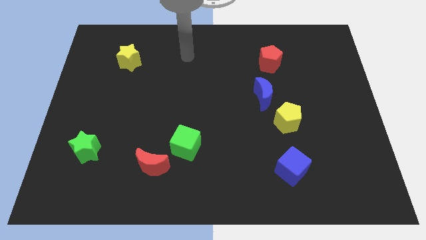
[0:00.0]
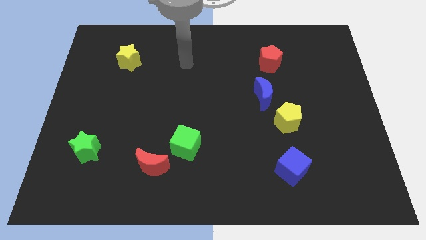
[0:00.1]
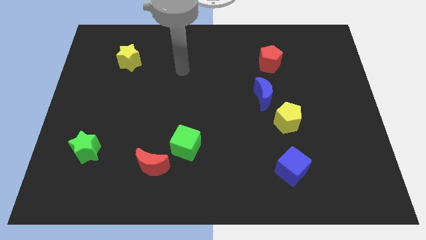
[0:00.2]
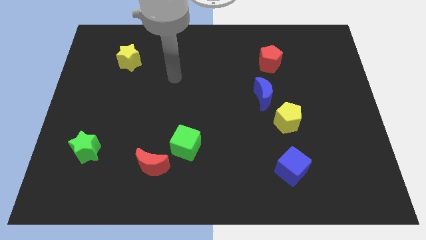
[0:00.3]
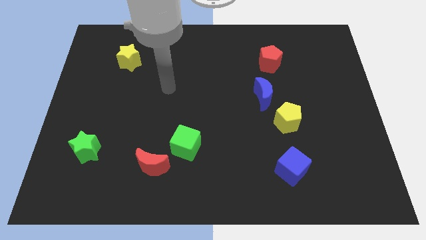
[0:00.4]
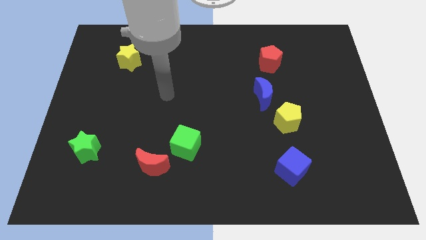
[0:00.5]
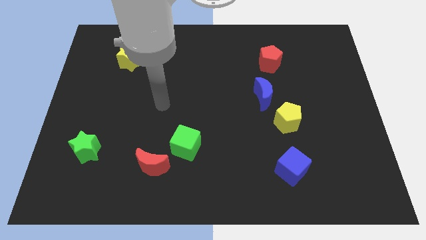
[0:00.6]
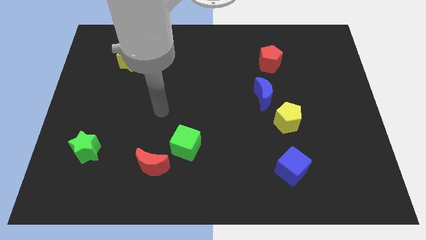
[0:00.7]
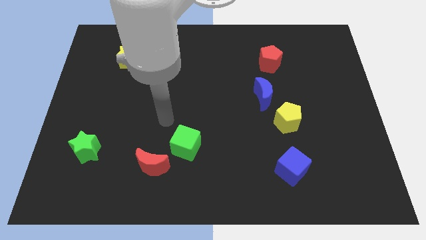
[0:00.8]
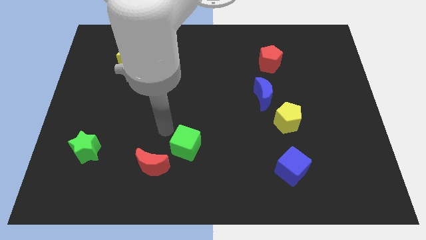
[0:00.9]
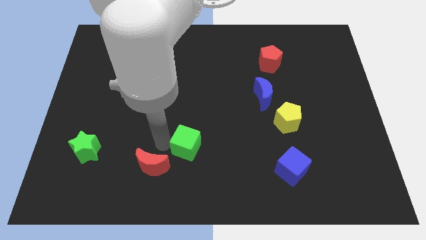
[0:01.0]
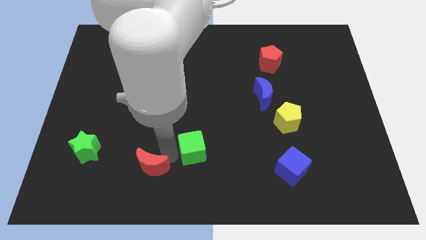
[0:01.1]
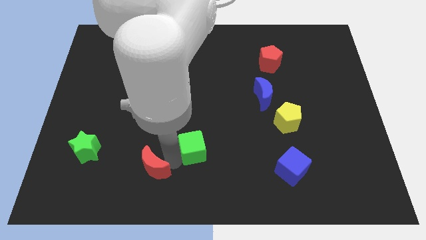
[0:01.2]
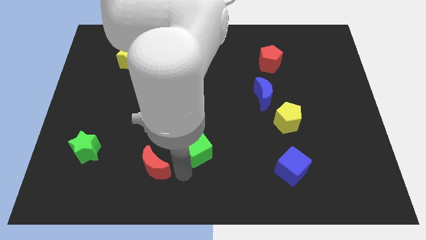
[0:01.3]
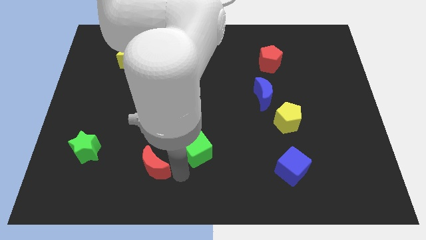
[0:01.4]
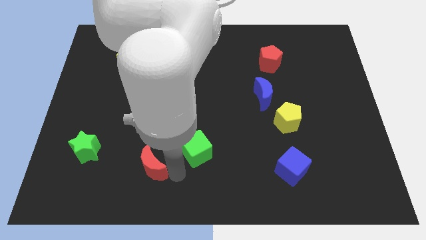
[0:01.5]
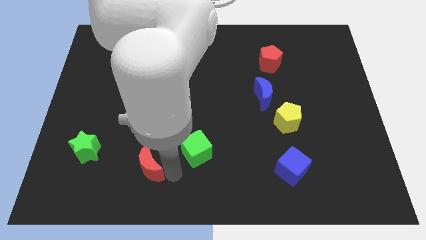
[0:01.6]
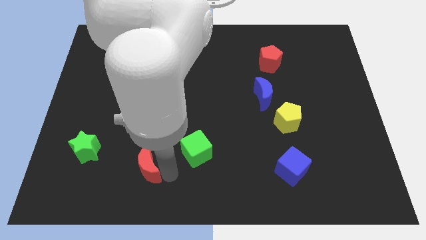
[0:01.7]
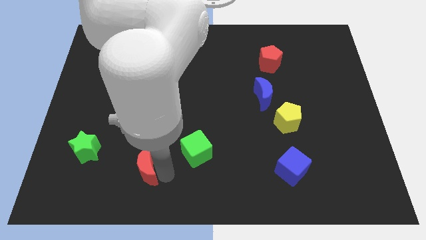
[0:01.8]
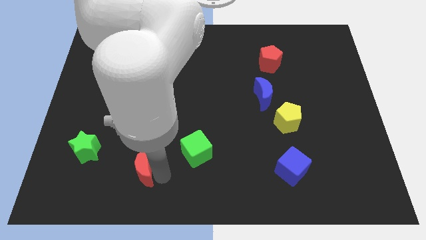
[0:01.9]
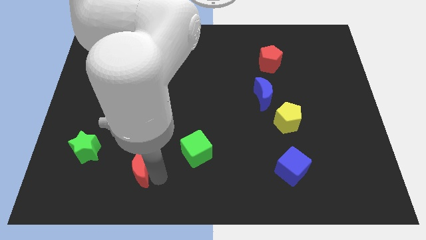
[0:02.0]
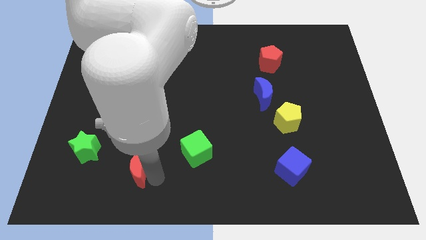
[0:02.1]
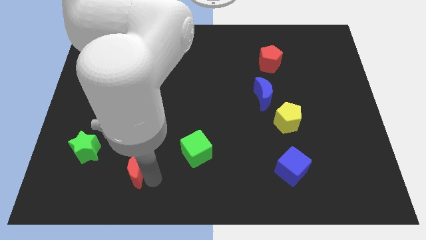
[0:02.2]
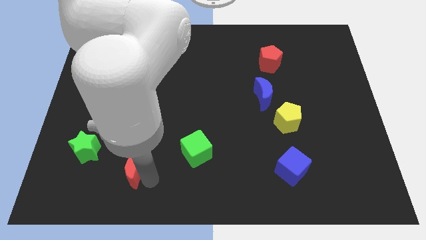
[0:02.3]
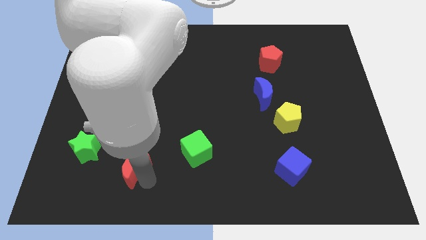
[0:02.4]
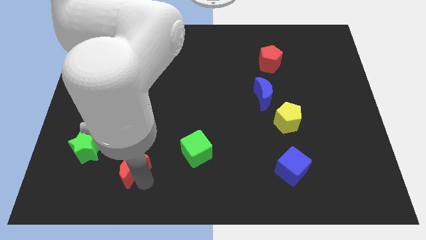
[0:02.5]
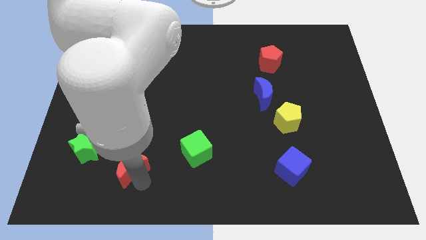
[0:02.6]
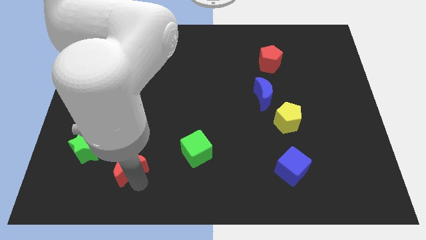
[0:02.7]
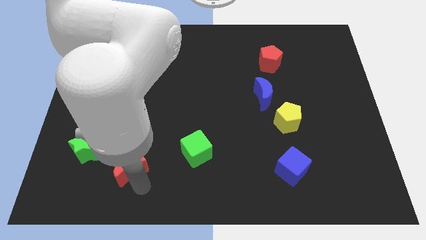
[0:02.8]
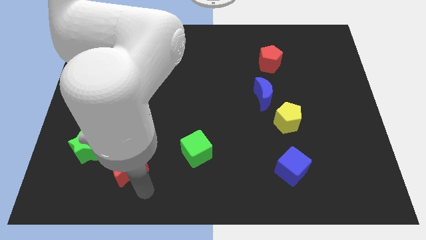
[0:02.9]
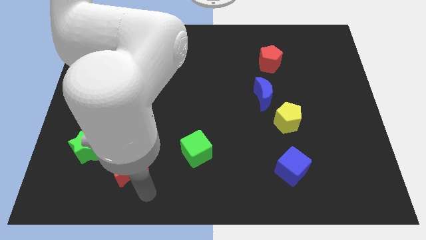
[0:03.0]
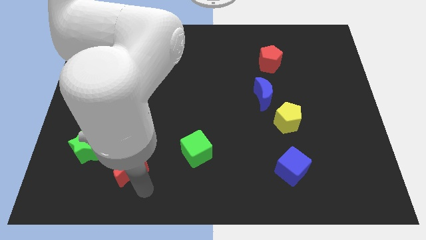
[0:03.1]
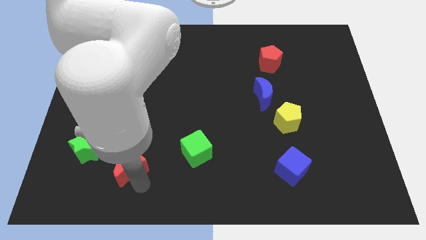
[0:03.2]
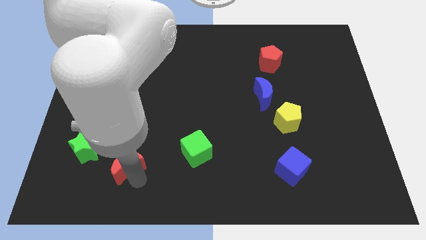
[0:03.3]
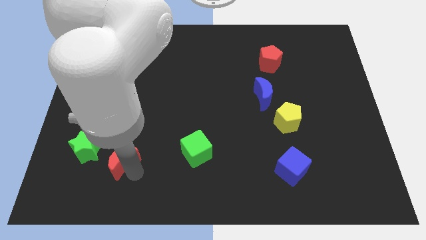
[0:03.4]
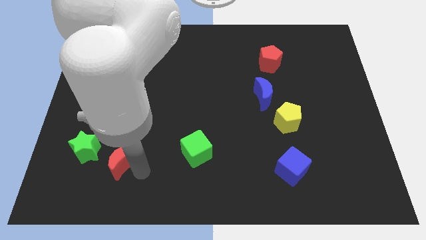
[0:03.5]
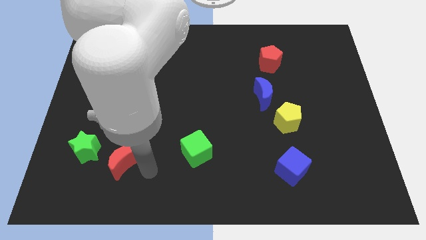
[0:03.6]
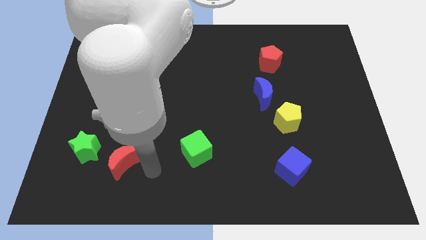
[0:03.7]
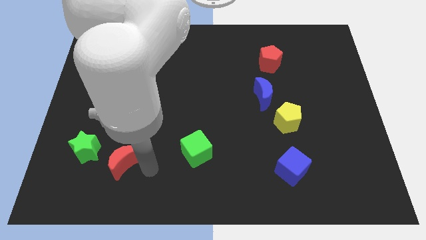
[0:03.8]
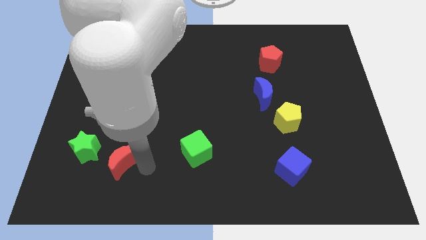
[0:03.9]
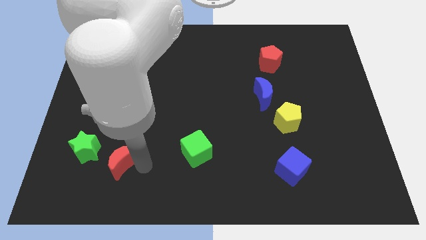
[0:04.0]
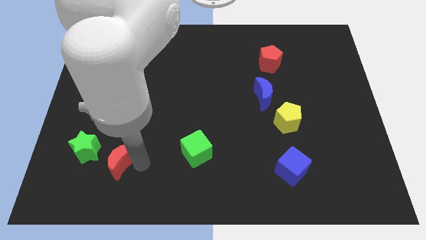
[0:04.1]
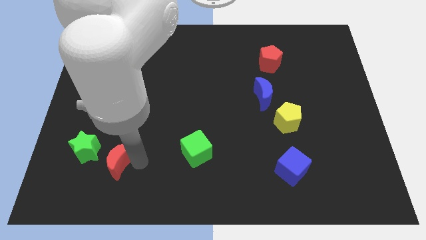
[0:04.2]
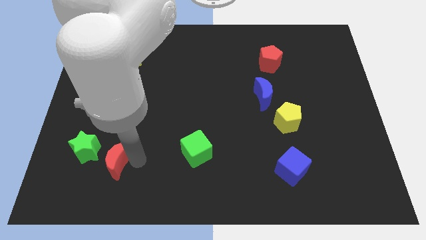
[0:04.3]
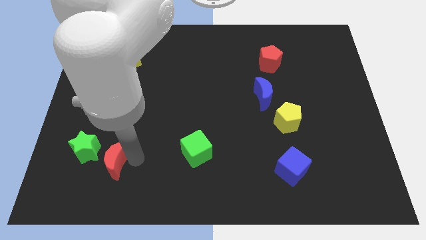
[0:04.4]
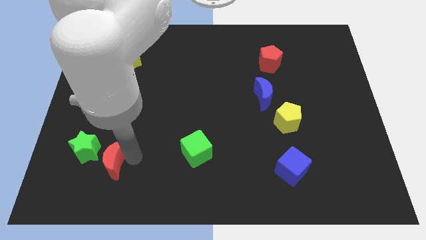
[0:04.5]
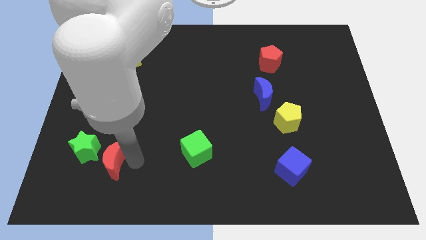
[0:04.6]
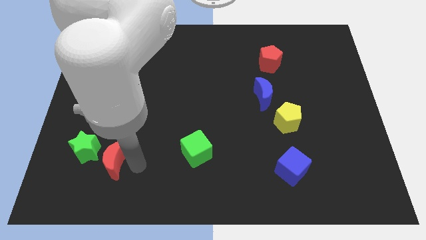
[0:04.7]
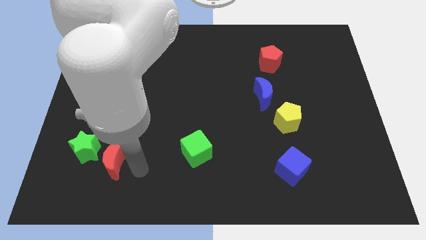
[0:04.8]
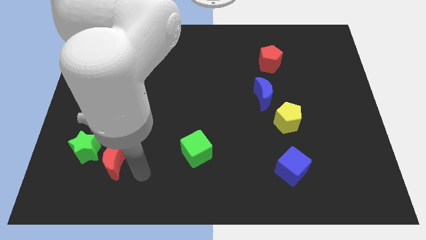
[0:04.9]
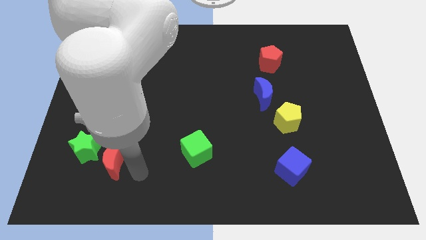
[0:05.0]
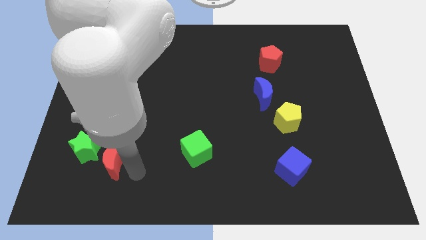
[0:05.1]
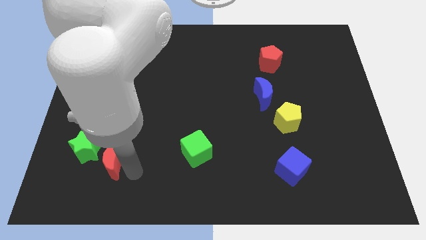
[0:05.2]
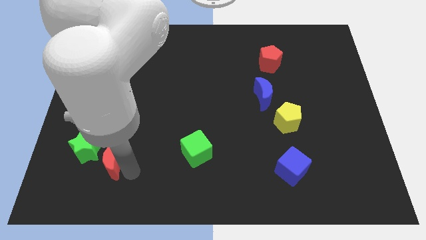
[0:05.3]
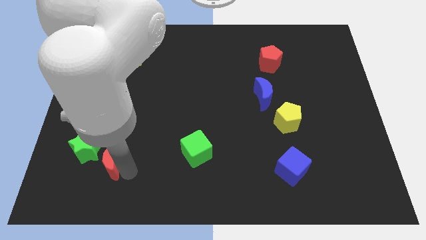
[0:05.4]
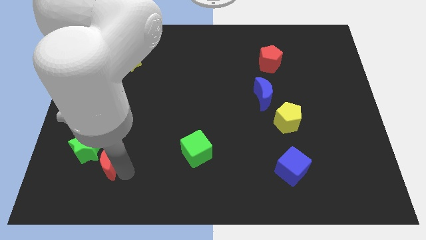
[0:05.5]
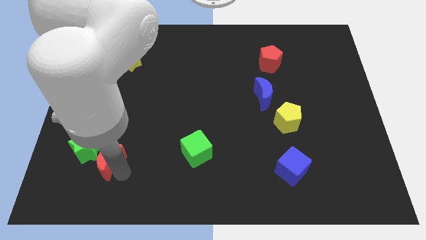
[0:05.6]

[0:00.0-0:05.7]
put the red moon next to the green star

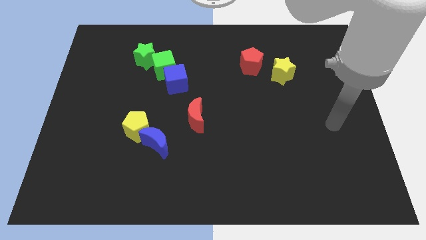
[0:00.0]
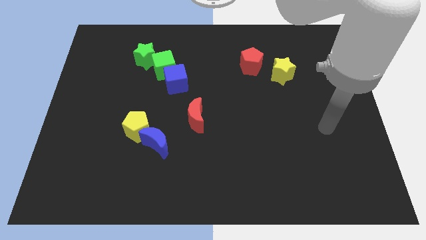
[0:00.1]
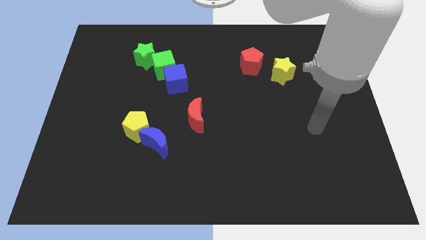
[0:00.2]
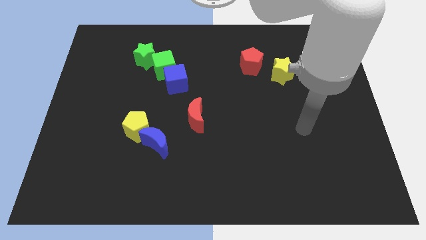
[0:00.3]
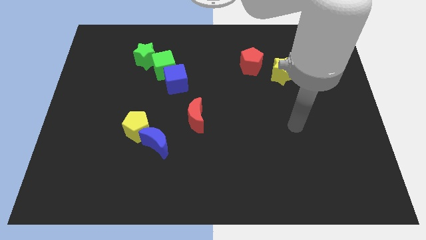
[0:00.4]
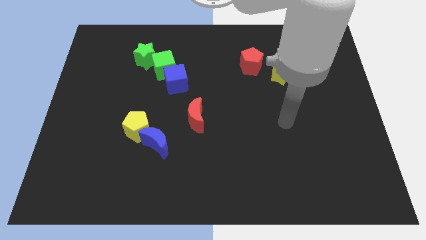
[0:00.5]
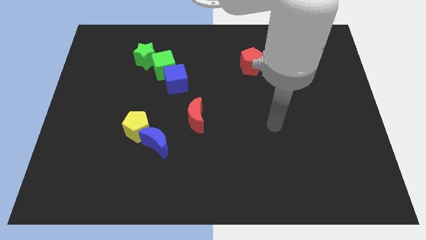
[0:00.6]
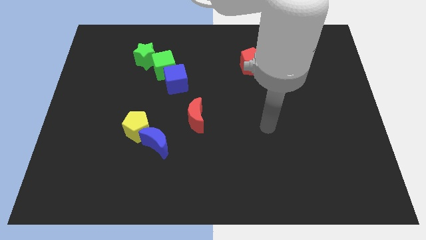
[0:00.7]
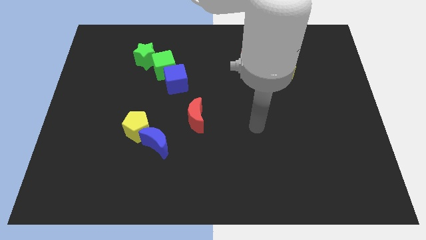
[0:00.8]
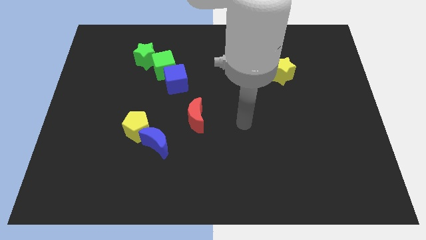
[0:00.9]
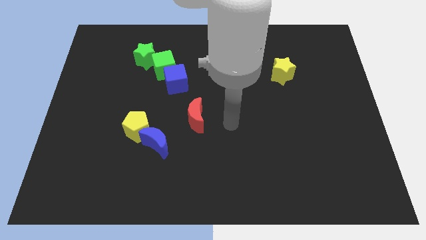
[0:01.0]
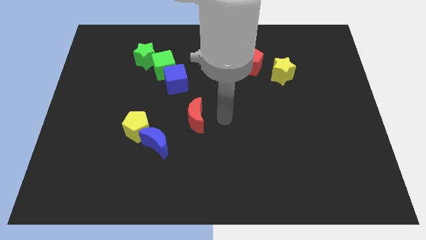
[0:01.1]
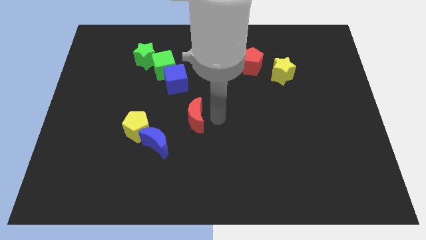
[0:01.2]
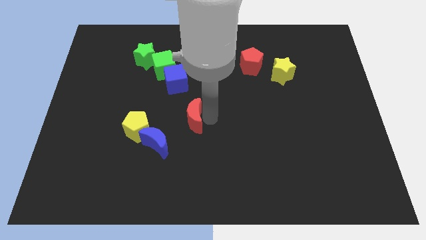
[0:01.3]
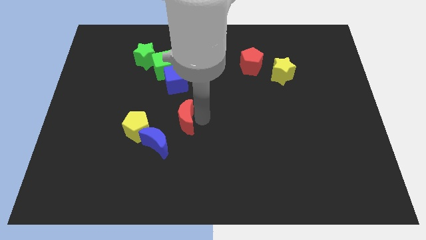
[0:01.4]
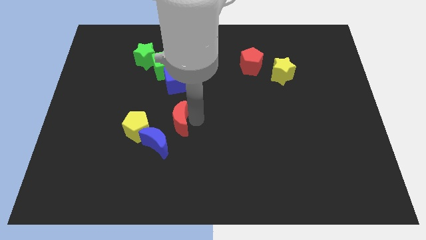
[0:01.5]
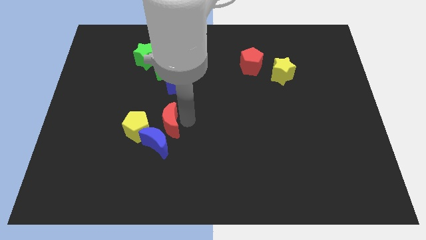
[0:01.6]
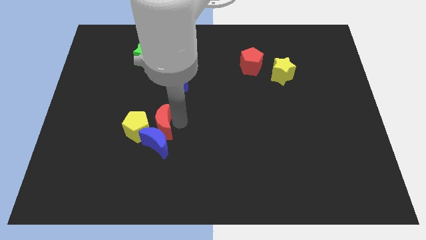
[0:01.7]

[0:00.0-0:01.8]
move the red moon to the yellow pentagon

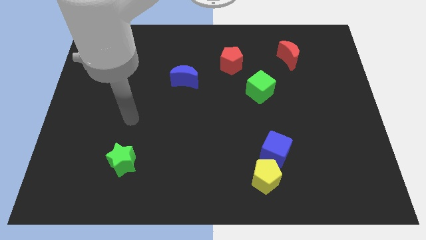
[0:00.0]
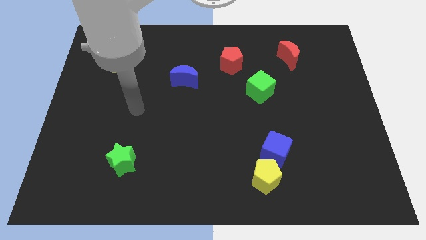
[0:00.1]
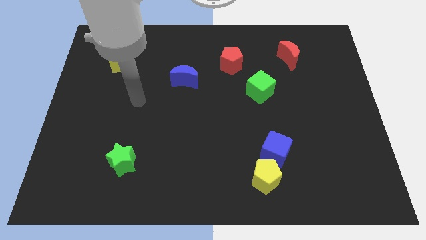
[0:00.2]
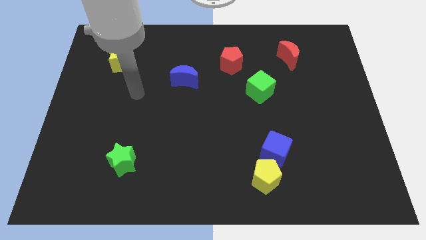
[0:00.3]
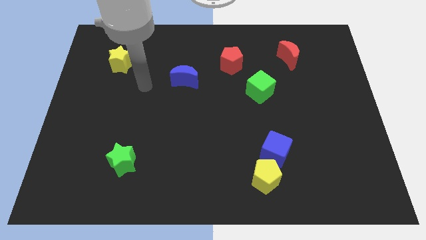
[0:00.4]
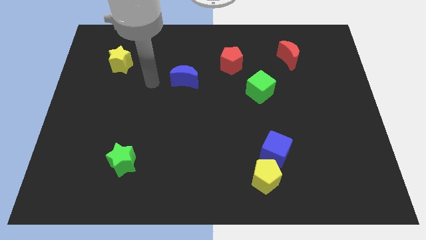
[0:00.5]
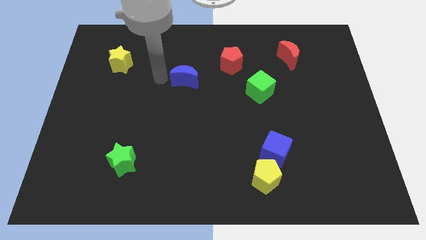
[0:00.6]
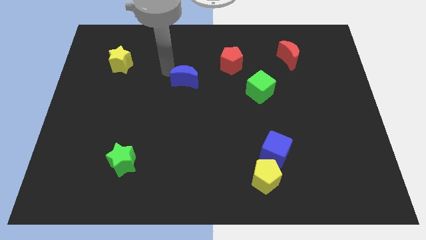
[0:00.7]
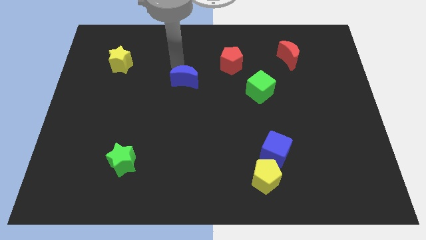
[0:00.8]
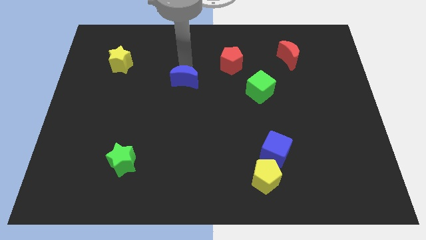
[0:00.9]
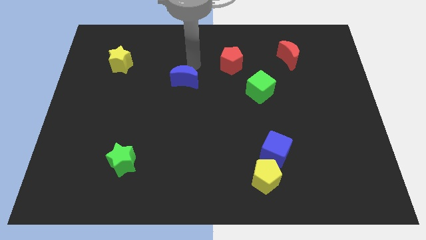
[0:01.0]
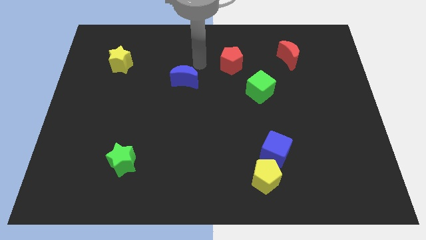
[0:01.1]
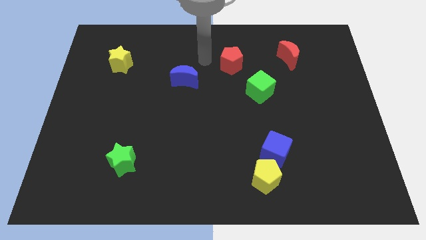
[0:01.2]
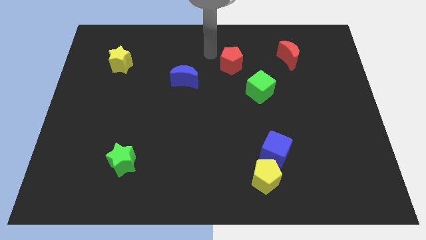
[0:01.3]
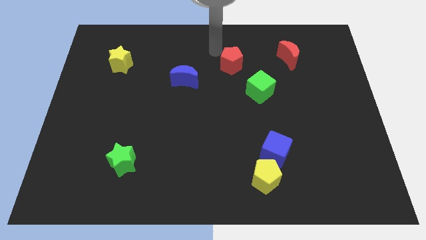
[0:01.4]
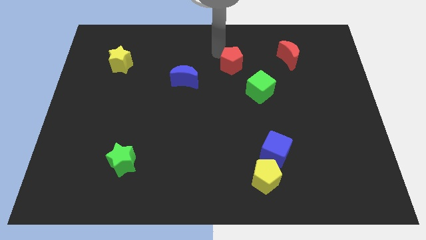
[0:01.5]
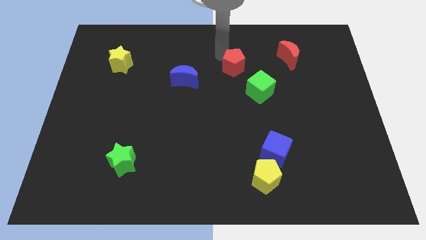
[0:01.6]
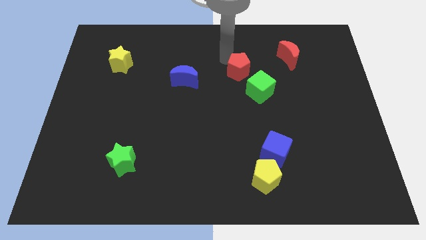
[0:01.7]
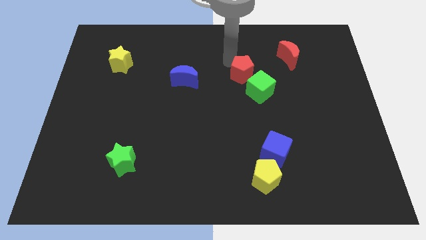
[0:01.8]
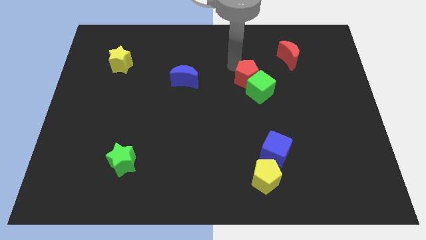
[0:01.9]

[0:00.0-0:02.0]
slide the red pentagon towards the green cube
